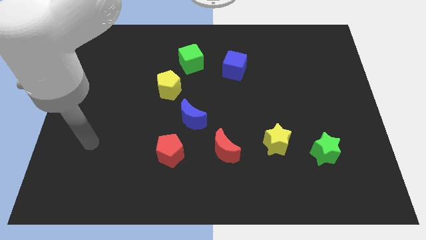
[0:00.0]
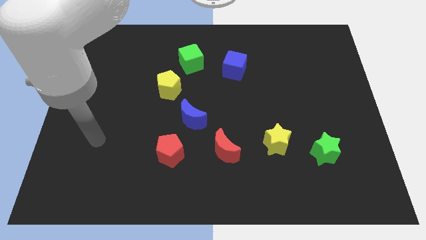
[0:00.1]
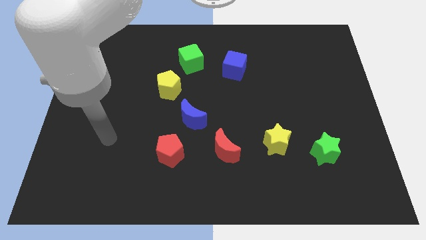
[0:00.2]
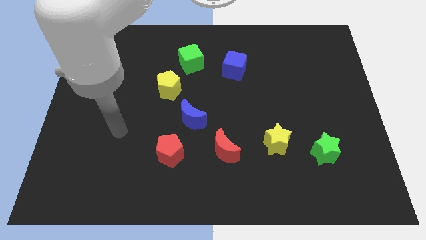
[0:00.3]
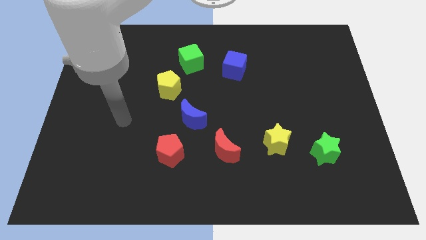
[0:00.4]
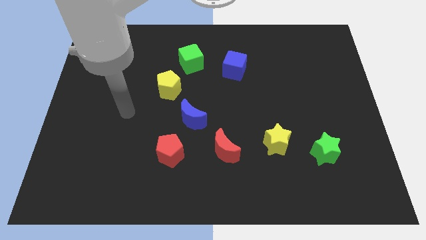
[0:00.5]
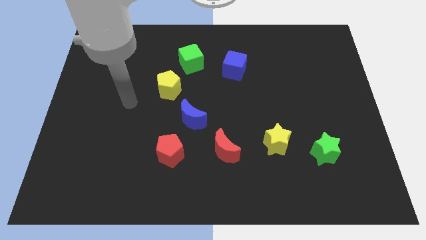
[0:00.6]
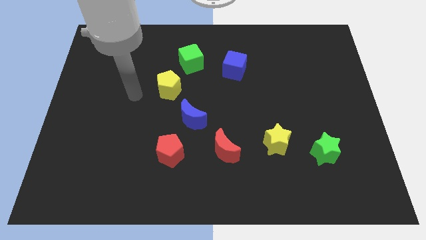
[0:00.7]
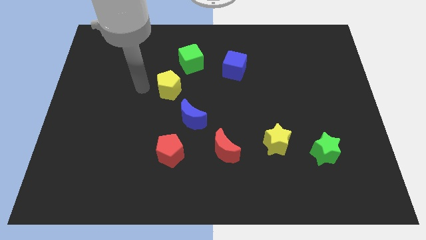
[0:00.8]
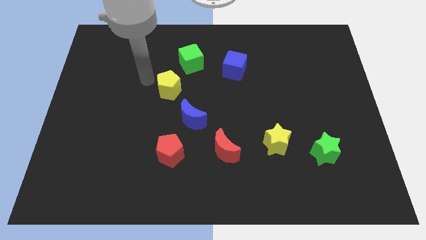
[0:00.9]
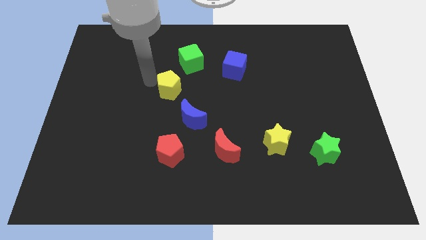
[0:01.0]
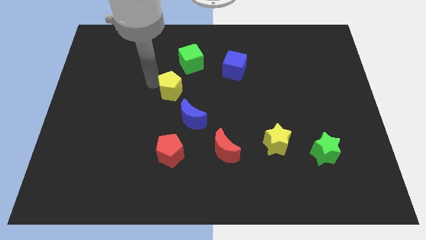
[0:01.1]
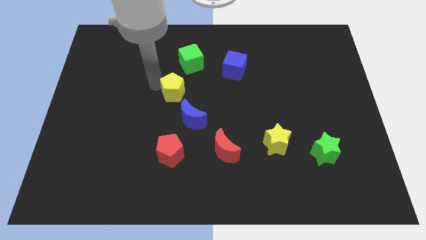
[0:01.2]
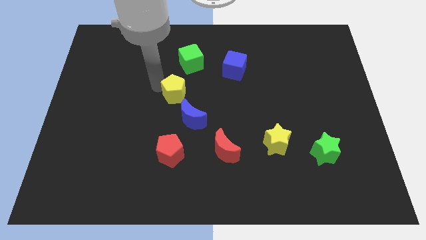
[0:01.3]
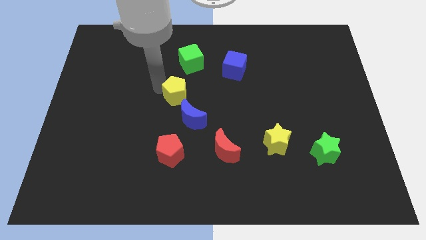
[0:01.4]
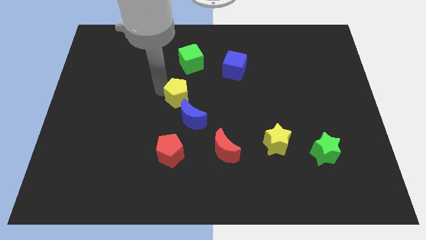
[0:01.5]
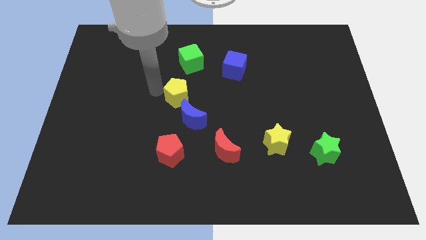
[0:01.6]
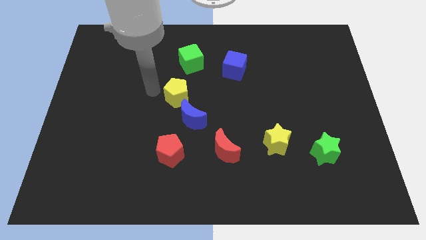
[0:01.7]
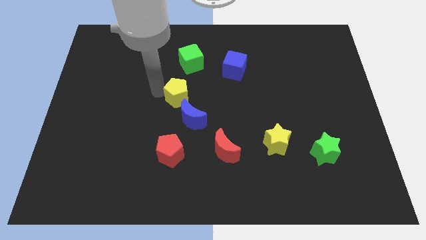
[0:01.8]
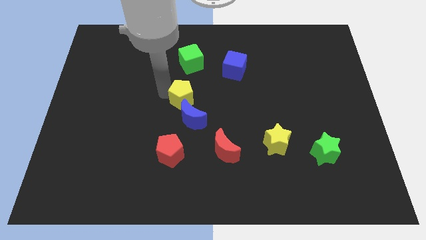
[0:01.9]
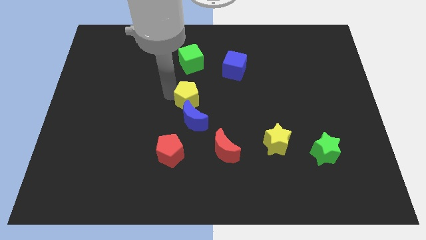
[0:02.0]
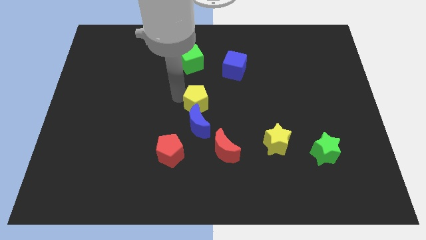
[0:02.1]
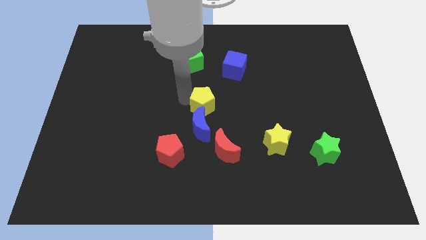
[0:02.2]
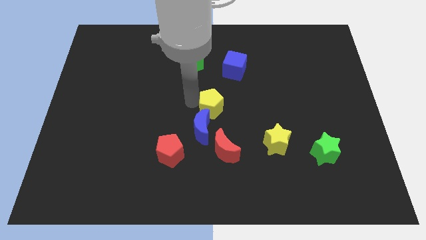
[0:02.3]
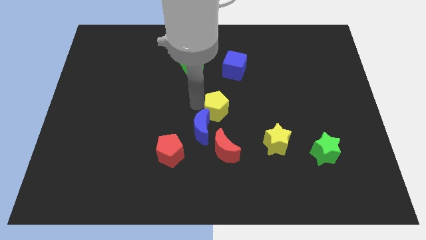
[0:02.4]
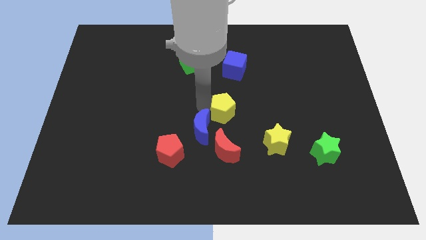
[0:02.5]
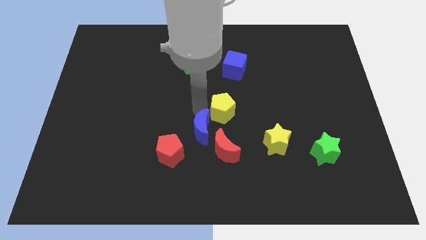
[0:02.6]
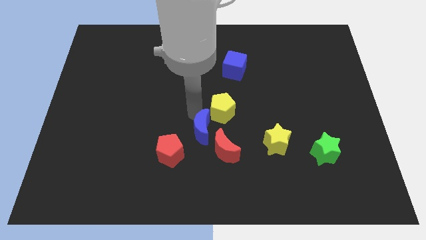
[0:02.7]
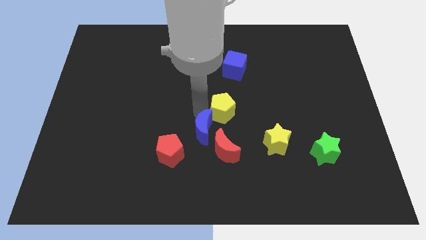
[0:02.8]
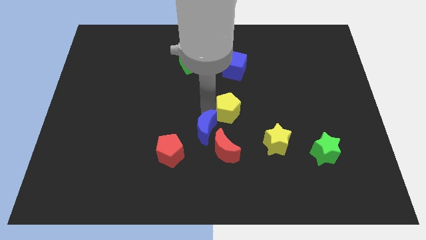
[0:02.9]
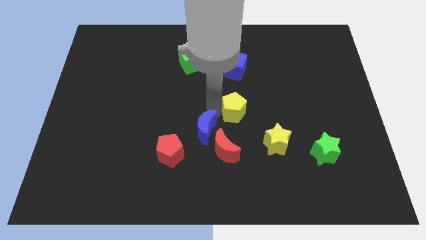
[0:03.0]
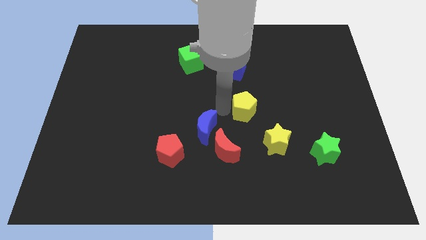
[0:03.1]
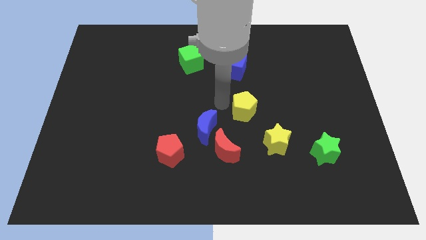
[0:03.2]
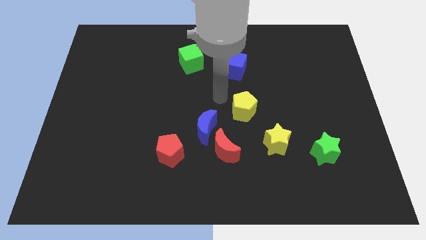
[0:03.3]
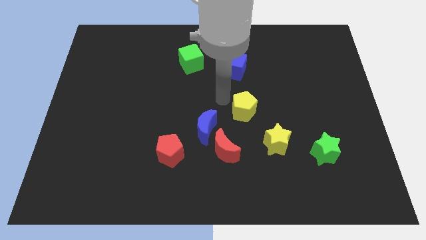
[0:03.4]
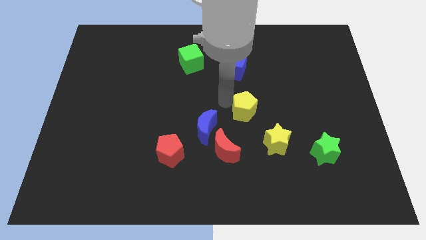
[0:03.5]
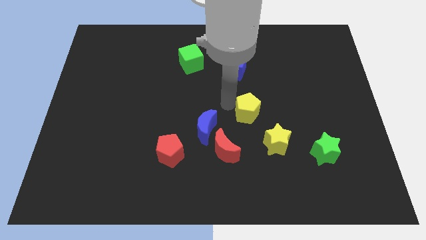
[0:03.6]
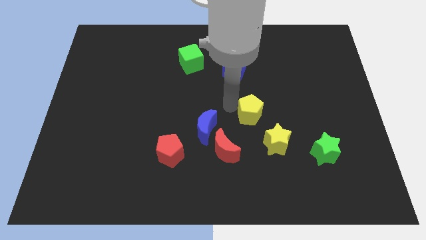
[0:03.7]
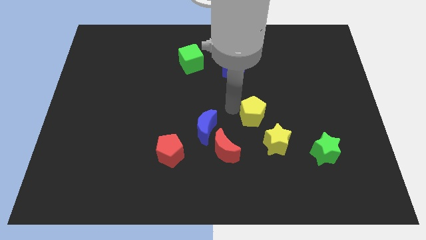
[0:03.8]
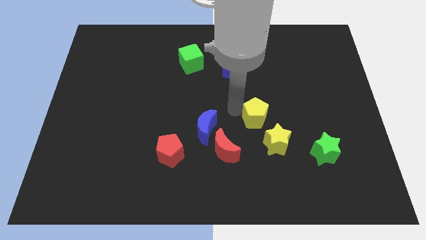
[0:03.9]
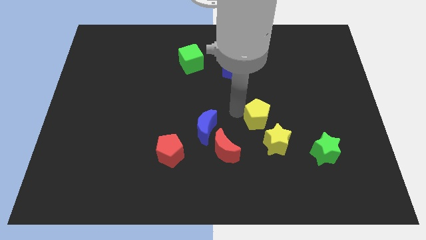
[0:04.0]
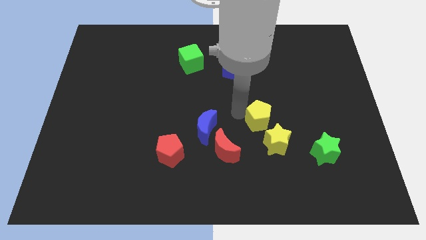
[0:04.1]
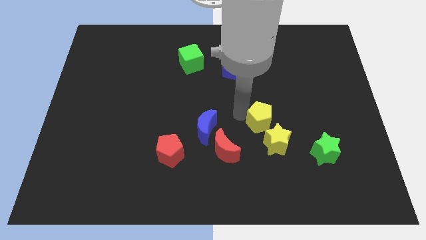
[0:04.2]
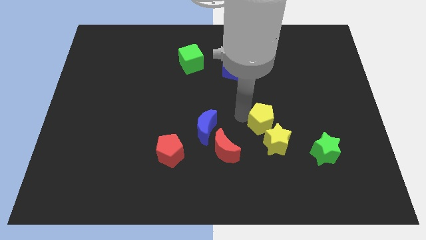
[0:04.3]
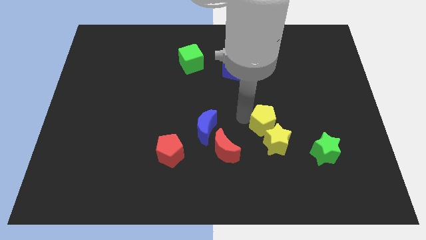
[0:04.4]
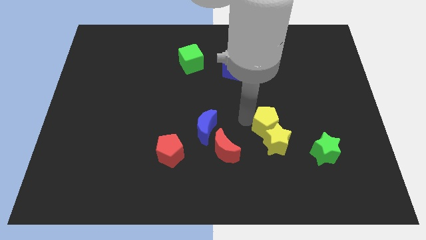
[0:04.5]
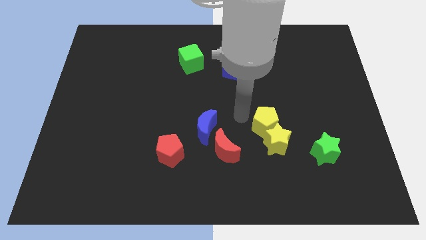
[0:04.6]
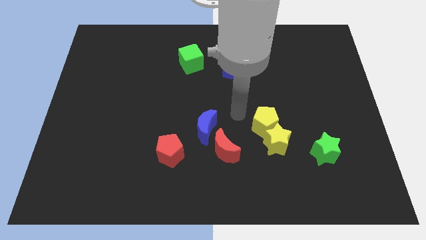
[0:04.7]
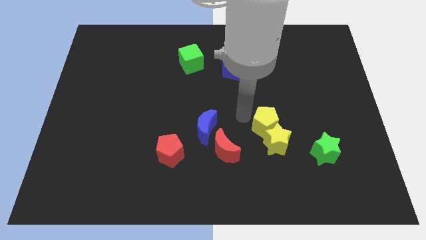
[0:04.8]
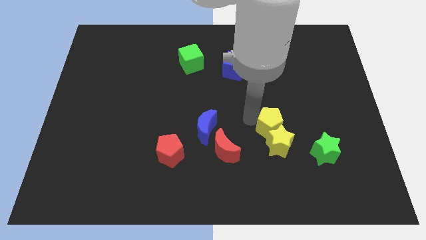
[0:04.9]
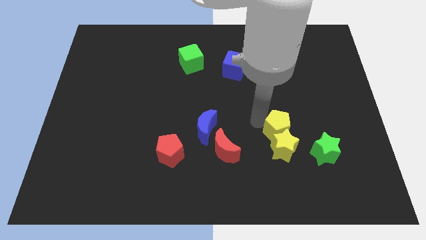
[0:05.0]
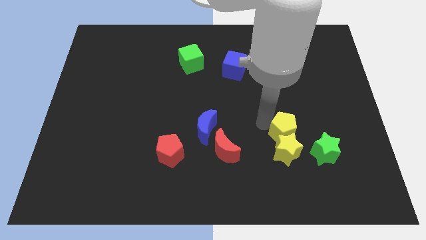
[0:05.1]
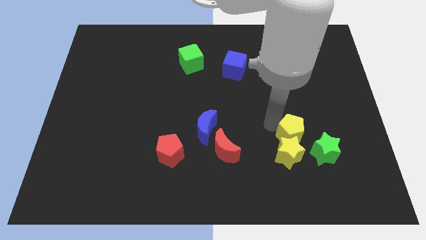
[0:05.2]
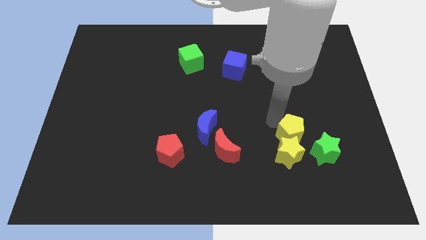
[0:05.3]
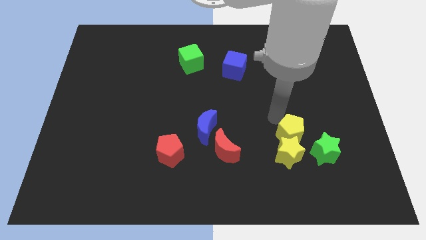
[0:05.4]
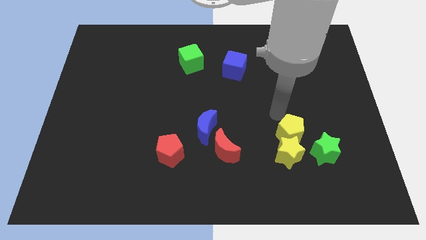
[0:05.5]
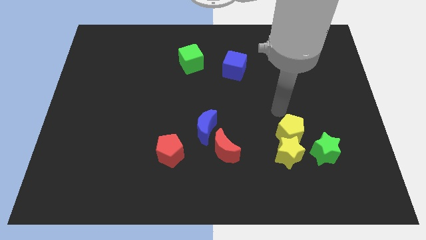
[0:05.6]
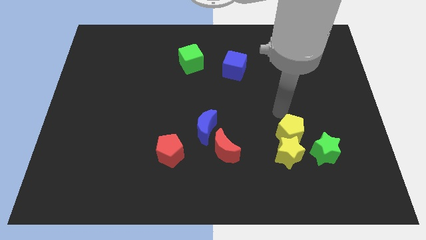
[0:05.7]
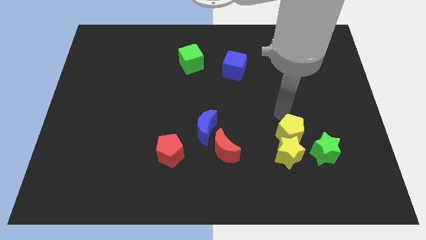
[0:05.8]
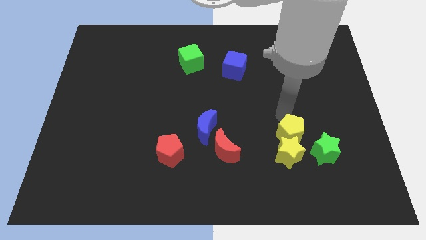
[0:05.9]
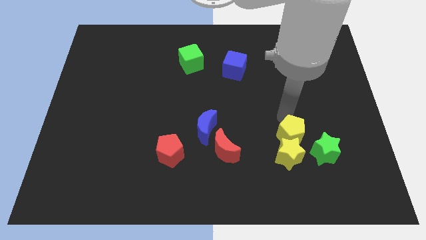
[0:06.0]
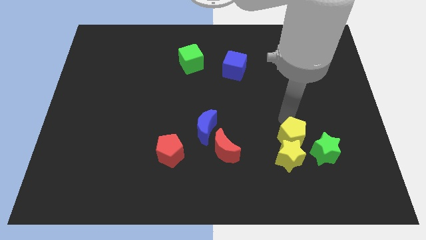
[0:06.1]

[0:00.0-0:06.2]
slide the yellow pentagon right of the red moon

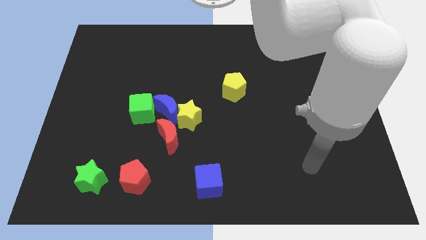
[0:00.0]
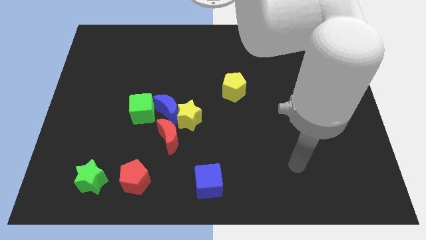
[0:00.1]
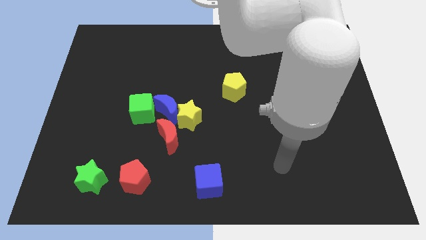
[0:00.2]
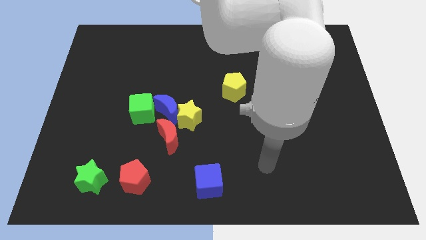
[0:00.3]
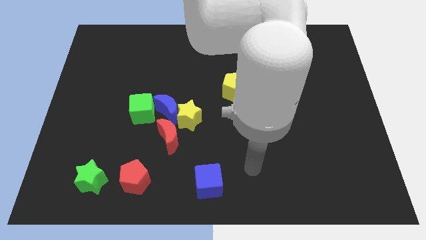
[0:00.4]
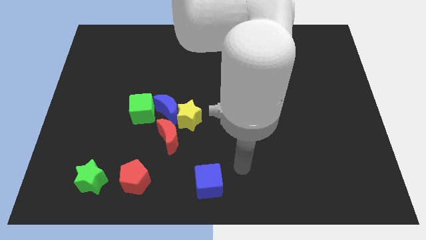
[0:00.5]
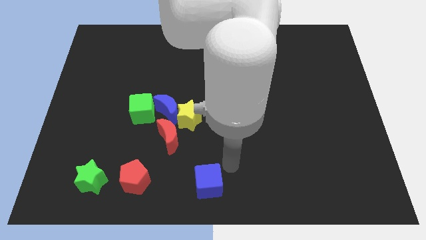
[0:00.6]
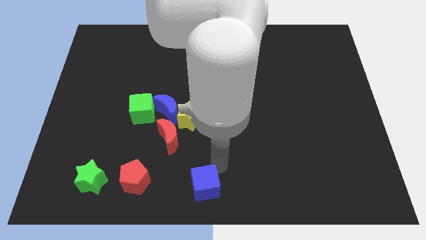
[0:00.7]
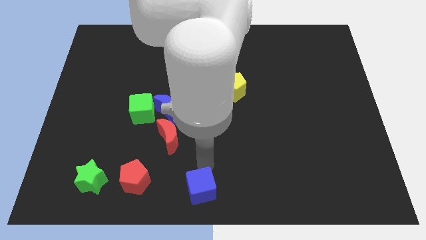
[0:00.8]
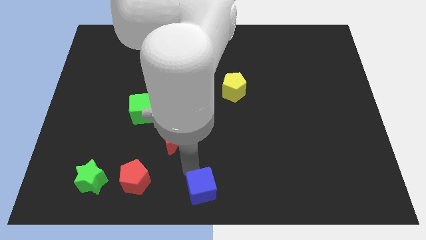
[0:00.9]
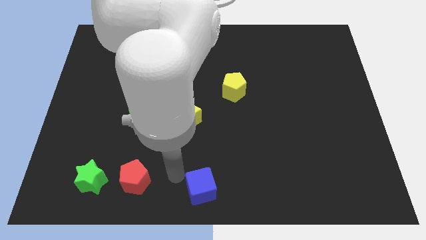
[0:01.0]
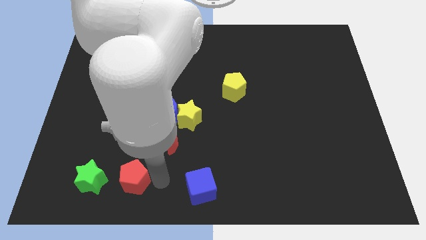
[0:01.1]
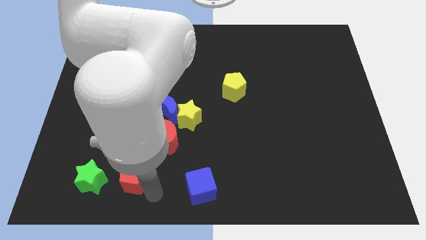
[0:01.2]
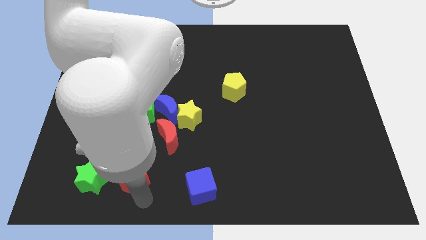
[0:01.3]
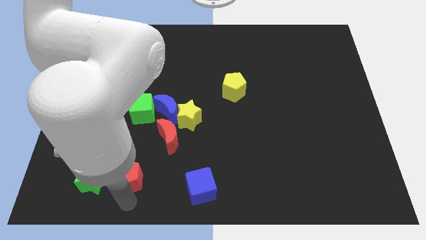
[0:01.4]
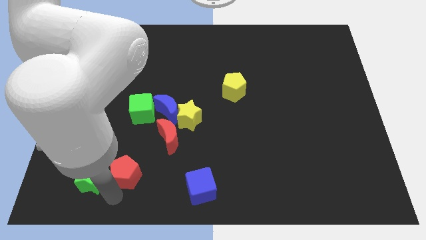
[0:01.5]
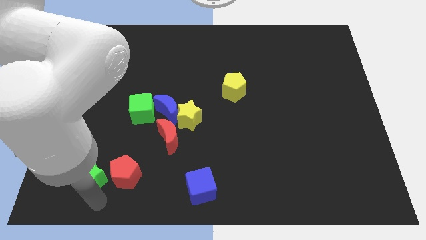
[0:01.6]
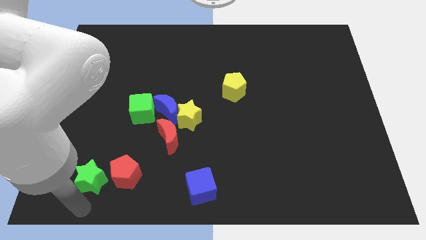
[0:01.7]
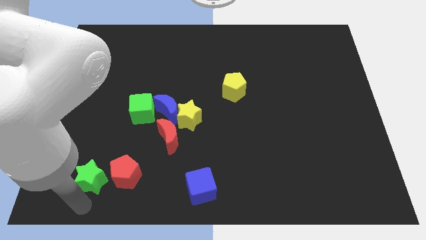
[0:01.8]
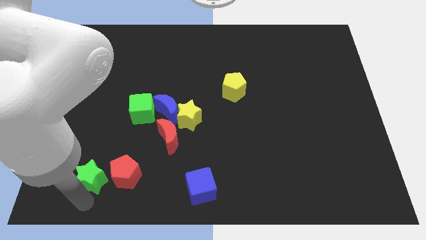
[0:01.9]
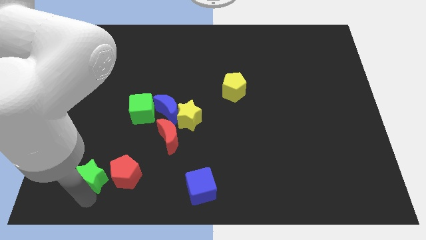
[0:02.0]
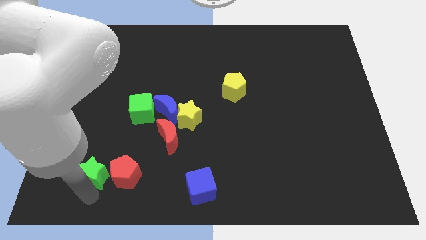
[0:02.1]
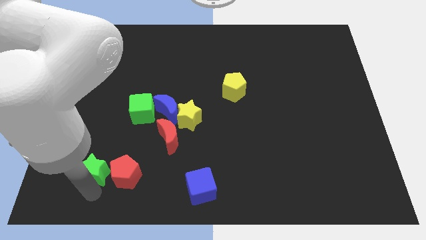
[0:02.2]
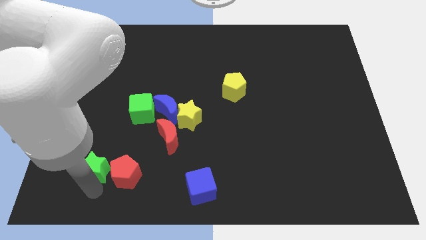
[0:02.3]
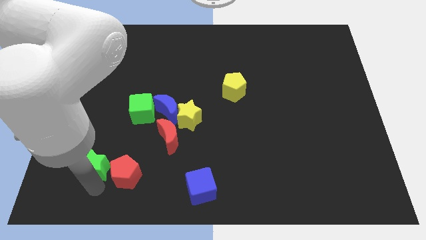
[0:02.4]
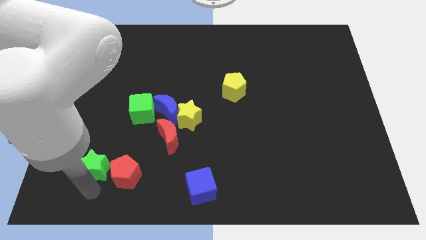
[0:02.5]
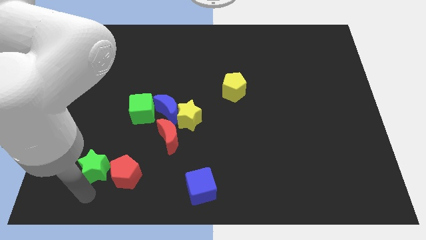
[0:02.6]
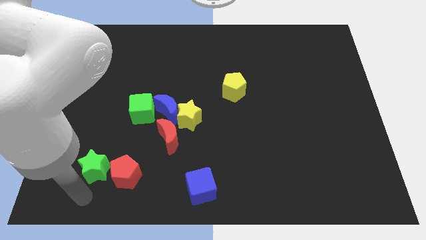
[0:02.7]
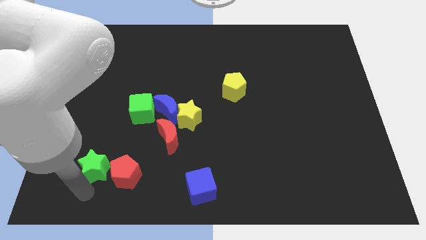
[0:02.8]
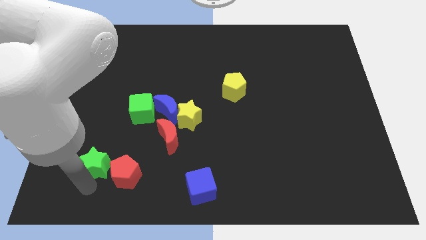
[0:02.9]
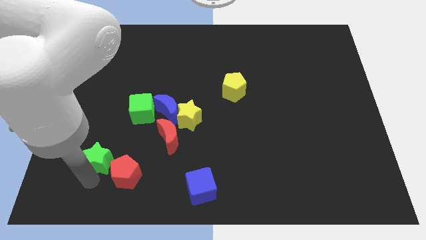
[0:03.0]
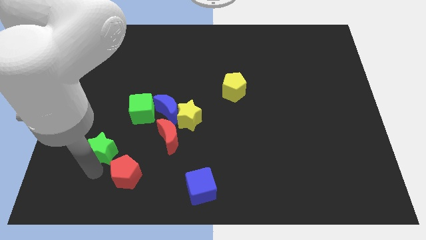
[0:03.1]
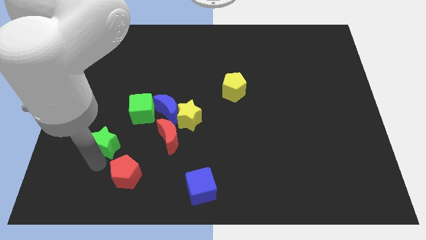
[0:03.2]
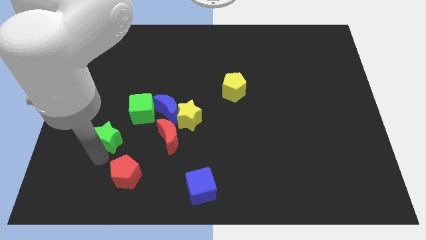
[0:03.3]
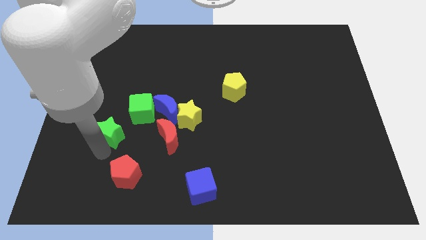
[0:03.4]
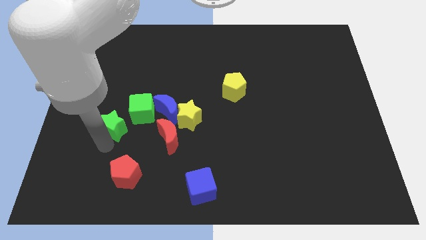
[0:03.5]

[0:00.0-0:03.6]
push the green star to the left side of the blue moon
